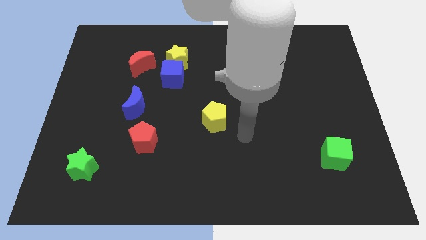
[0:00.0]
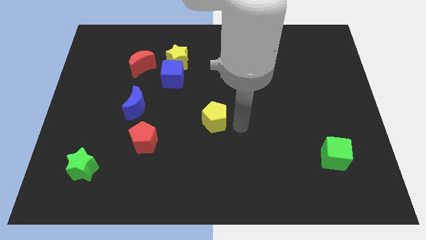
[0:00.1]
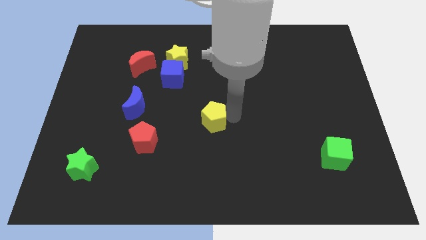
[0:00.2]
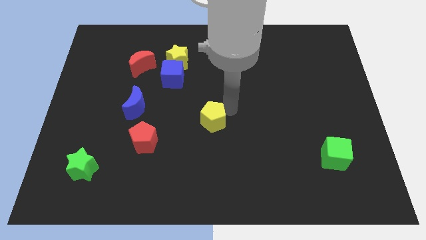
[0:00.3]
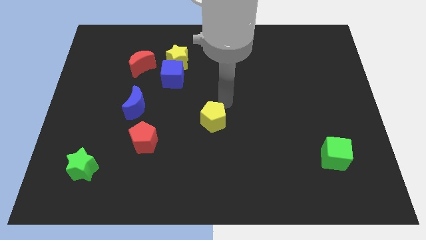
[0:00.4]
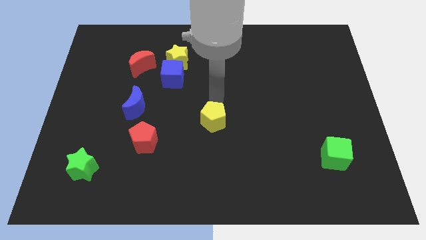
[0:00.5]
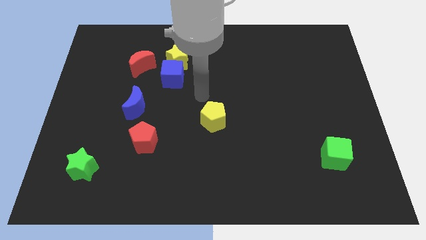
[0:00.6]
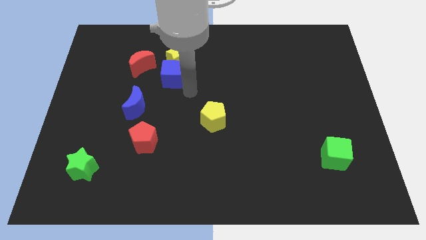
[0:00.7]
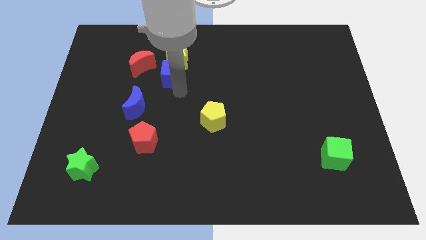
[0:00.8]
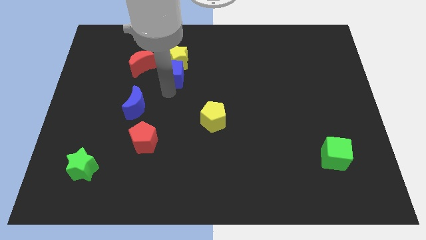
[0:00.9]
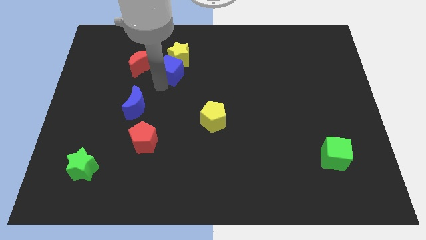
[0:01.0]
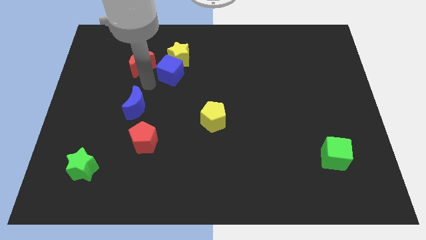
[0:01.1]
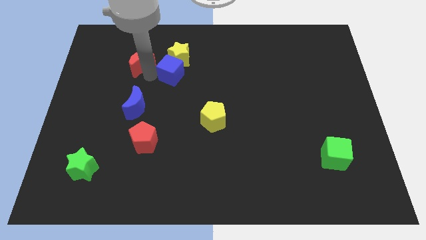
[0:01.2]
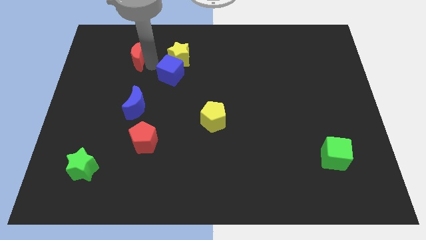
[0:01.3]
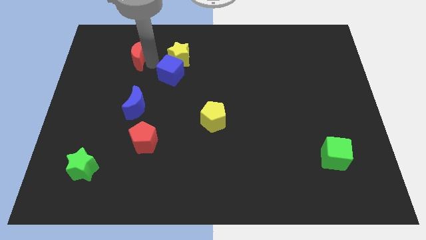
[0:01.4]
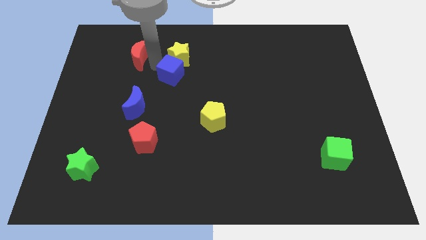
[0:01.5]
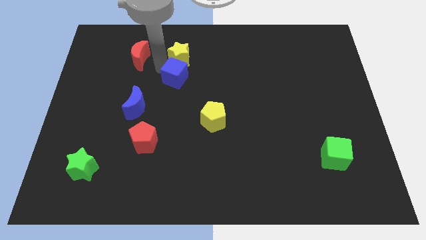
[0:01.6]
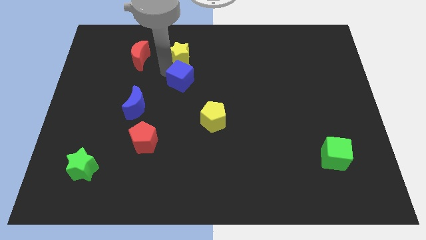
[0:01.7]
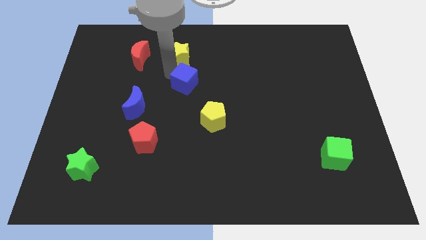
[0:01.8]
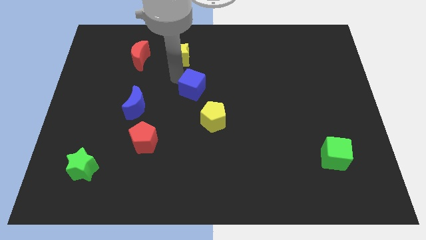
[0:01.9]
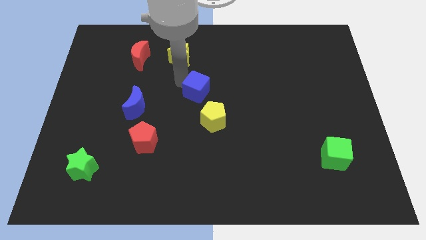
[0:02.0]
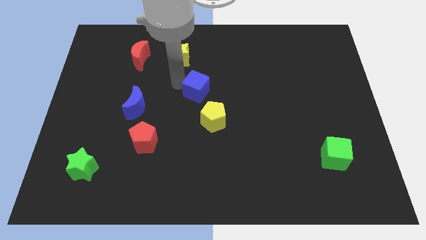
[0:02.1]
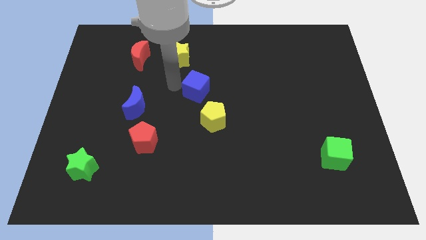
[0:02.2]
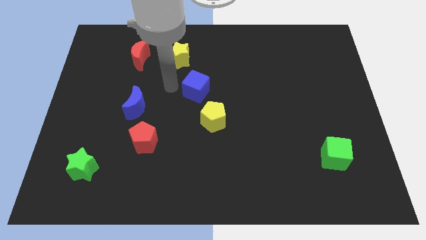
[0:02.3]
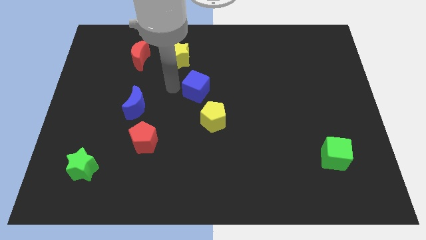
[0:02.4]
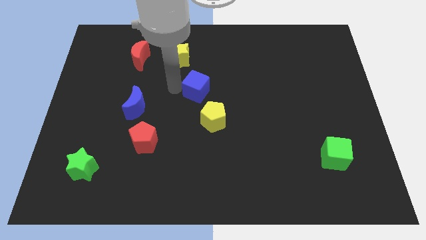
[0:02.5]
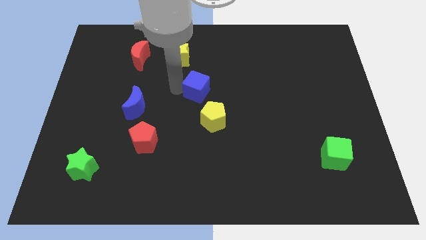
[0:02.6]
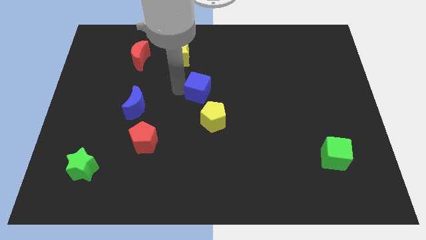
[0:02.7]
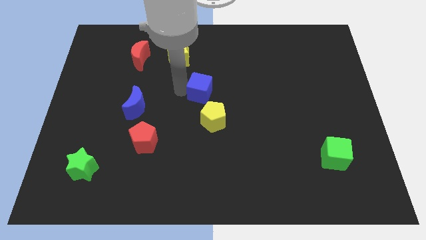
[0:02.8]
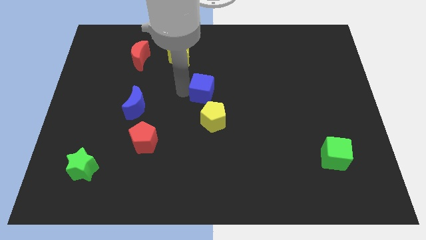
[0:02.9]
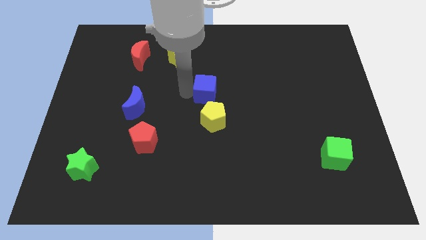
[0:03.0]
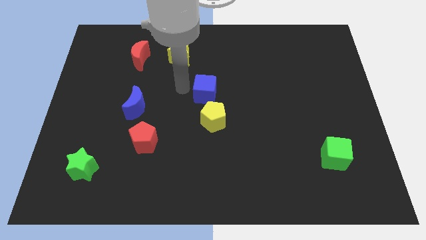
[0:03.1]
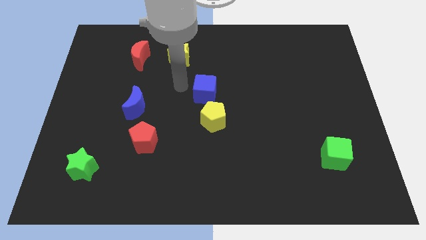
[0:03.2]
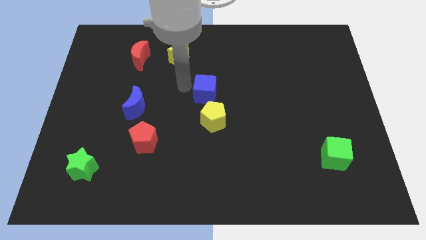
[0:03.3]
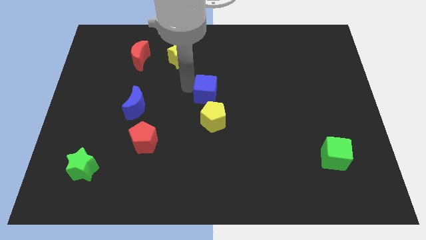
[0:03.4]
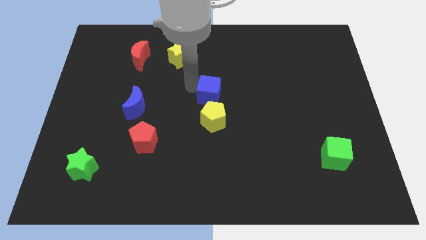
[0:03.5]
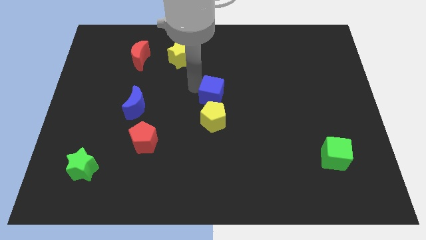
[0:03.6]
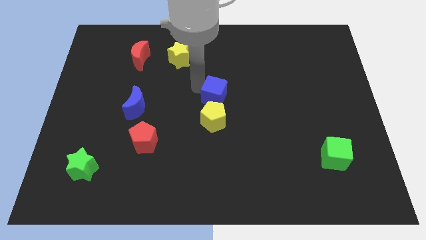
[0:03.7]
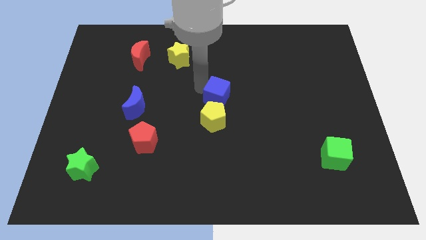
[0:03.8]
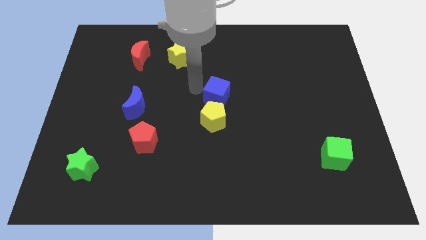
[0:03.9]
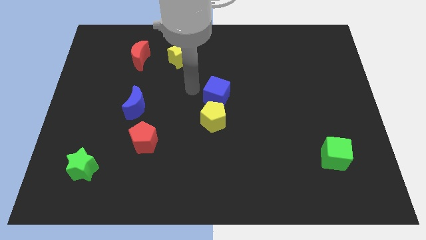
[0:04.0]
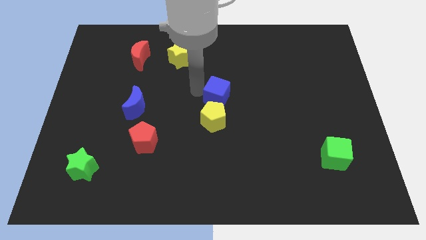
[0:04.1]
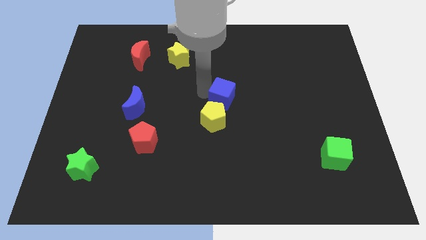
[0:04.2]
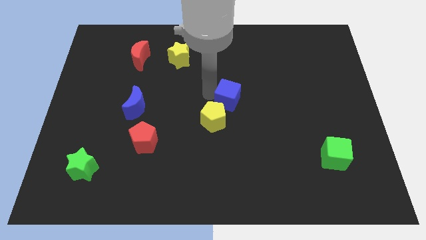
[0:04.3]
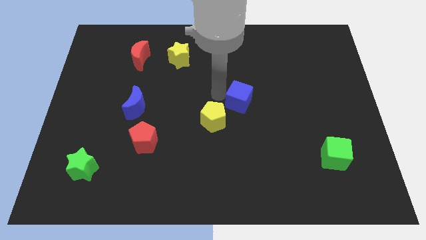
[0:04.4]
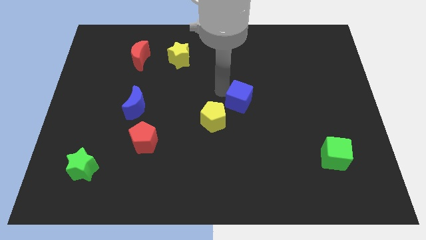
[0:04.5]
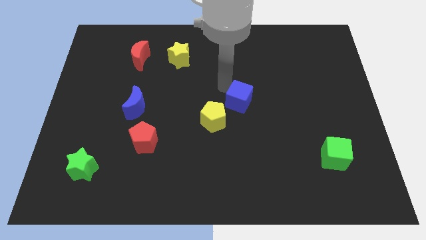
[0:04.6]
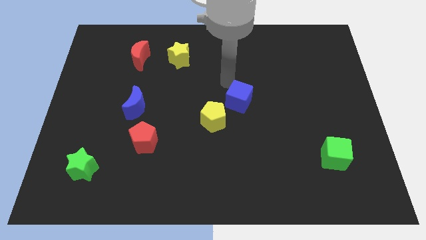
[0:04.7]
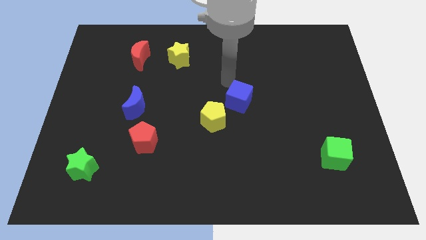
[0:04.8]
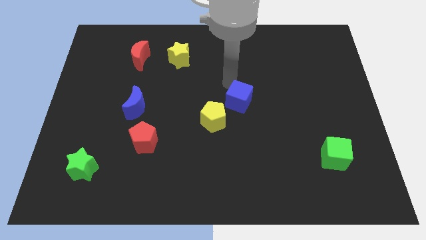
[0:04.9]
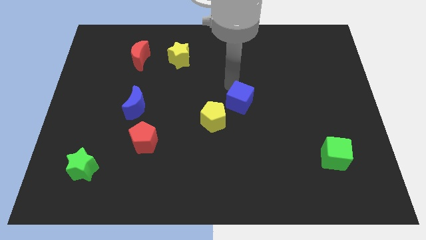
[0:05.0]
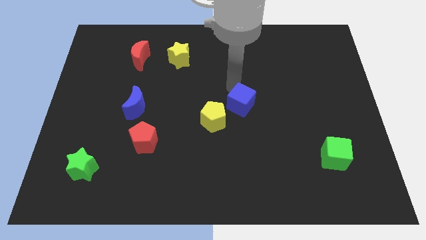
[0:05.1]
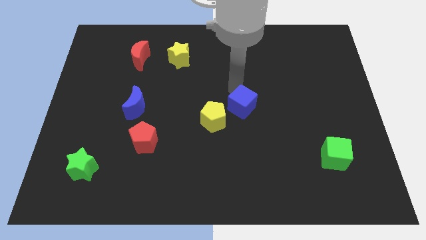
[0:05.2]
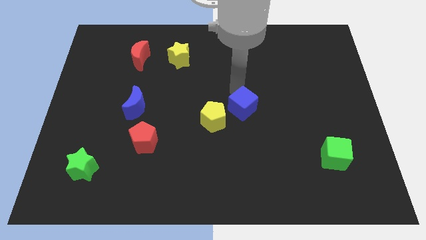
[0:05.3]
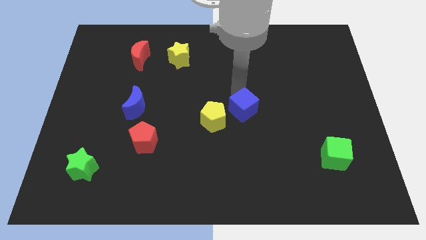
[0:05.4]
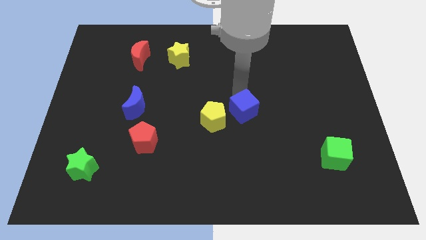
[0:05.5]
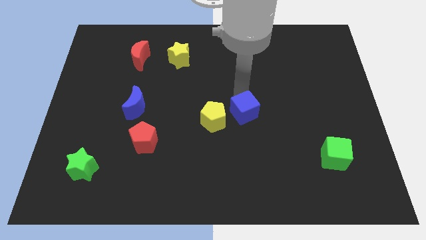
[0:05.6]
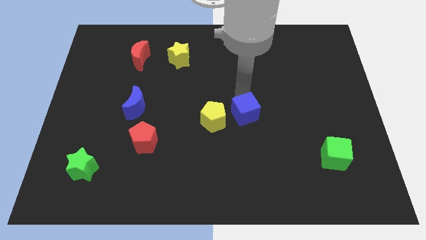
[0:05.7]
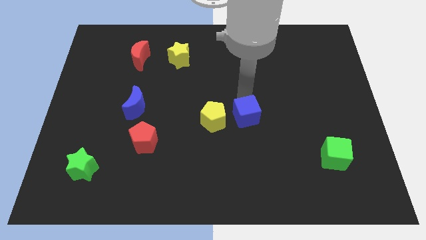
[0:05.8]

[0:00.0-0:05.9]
move the blue cube diagonally downwards and to the right

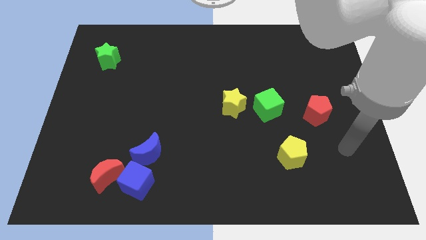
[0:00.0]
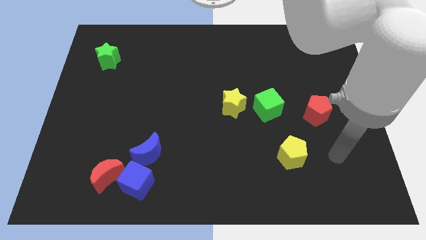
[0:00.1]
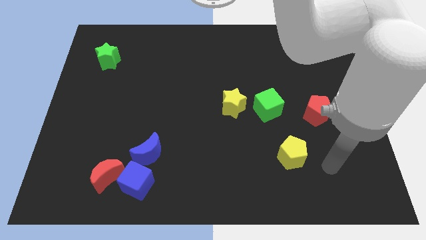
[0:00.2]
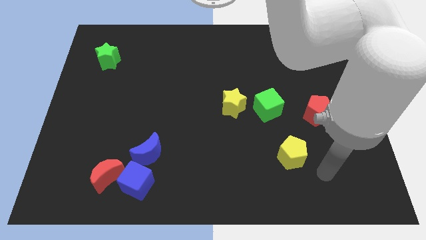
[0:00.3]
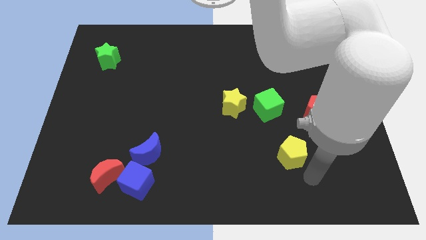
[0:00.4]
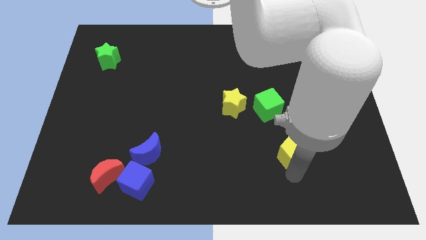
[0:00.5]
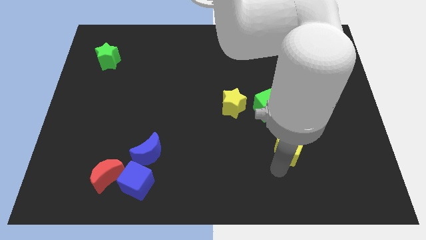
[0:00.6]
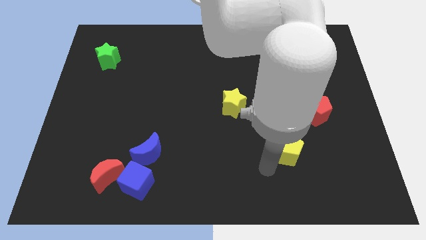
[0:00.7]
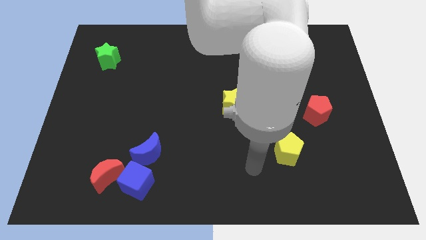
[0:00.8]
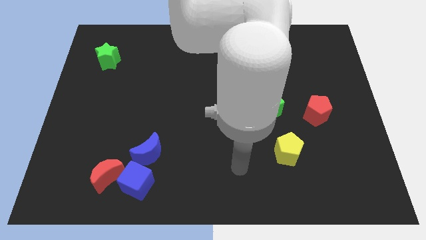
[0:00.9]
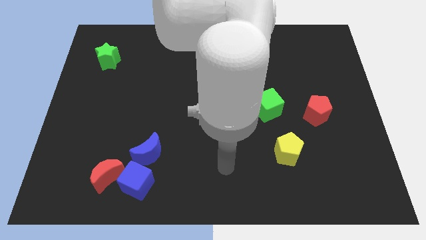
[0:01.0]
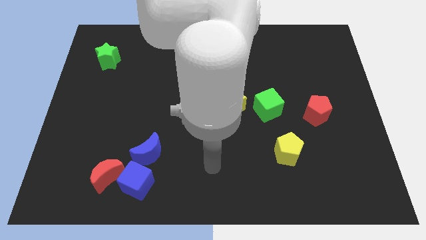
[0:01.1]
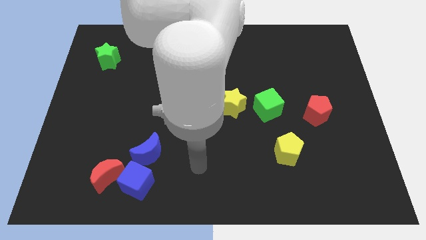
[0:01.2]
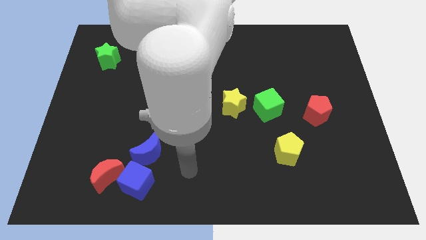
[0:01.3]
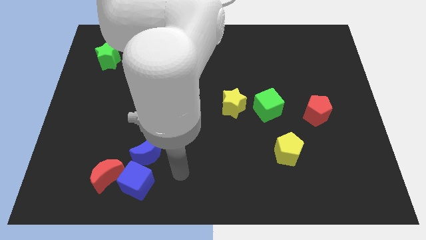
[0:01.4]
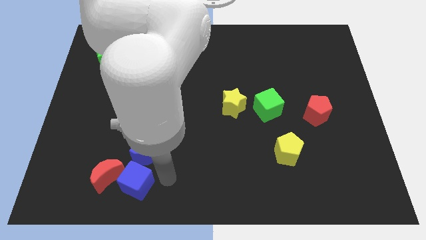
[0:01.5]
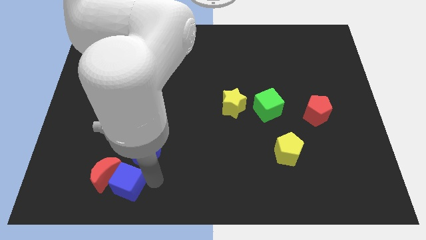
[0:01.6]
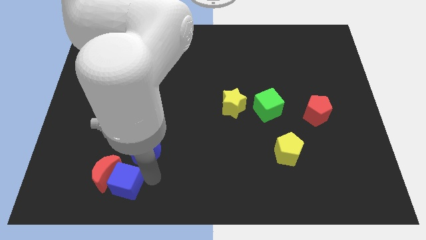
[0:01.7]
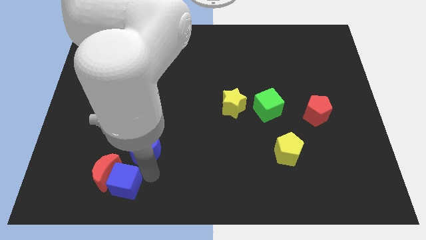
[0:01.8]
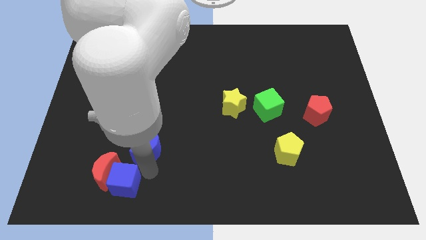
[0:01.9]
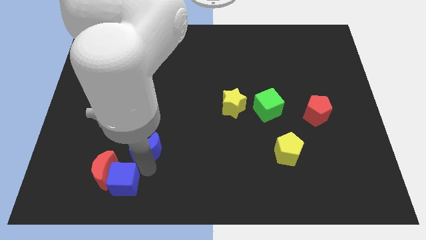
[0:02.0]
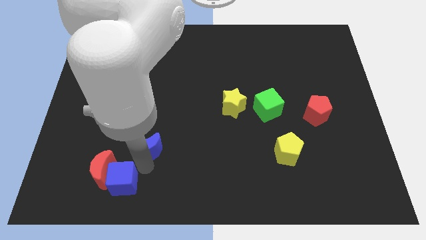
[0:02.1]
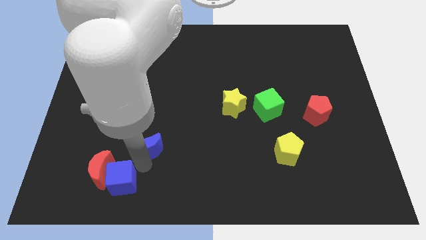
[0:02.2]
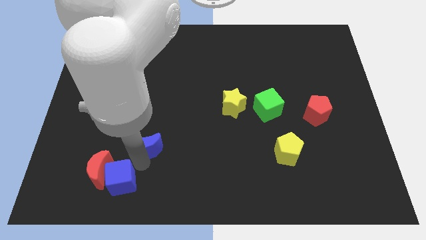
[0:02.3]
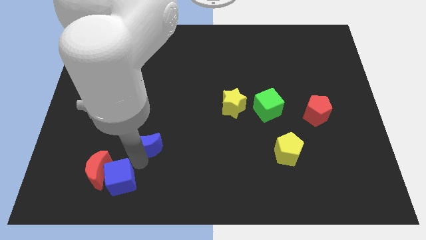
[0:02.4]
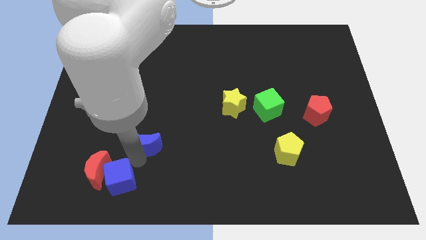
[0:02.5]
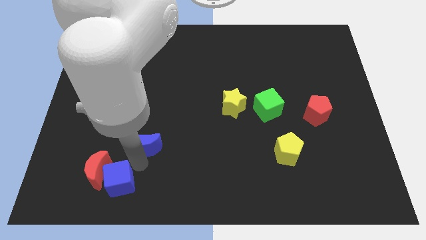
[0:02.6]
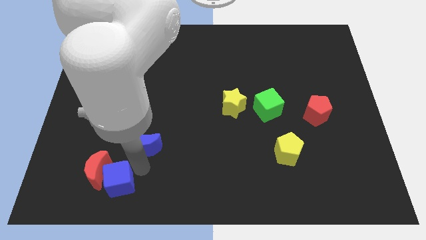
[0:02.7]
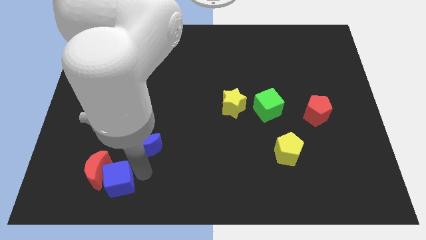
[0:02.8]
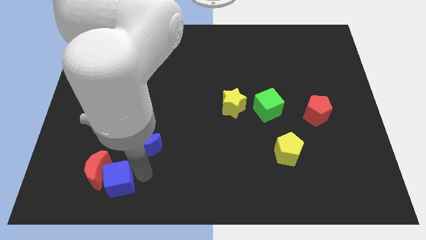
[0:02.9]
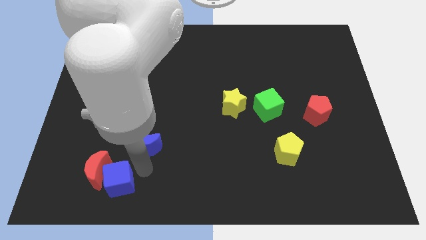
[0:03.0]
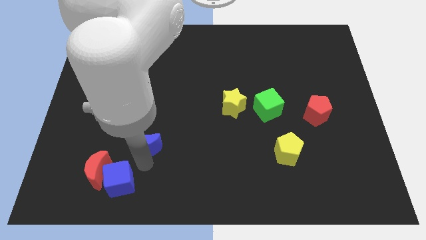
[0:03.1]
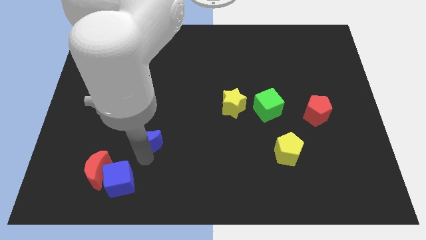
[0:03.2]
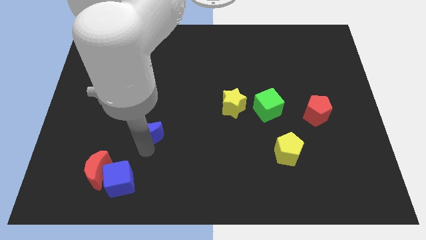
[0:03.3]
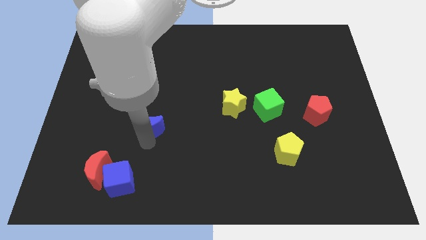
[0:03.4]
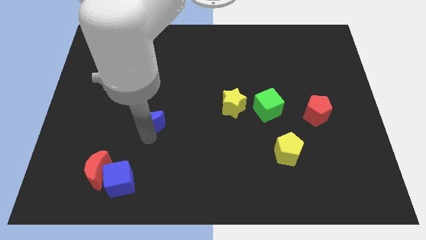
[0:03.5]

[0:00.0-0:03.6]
push the blue moon a little bit up
